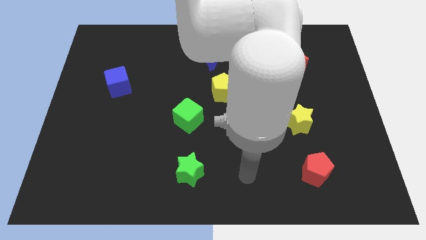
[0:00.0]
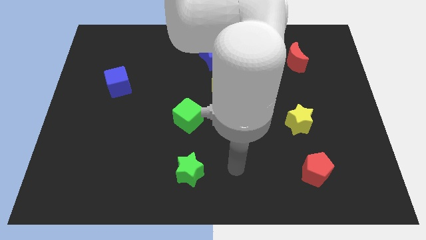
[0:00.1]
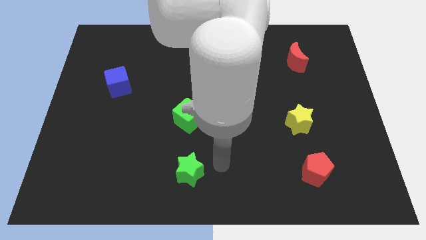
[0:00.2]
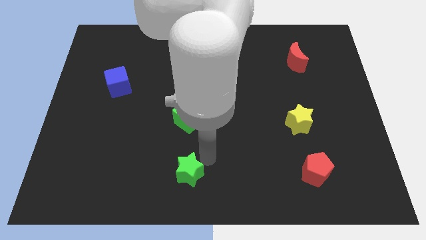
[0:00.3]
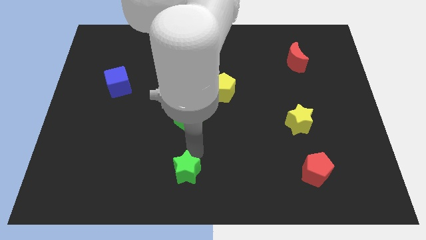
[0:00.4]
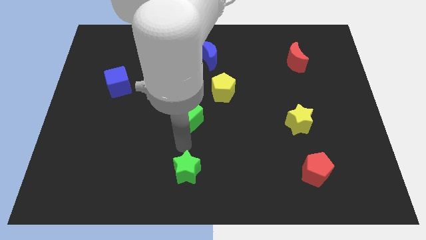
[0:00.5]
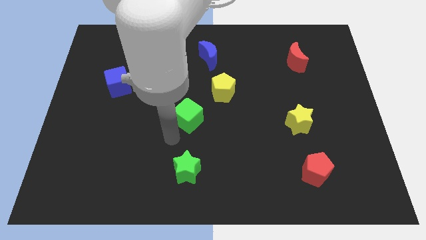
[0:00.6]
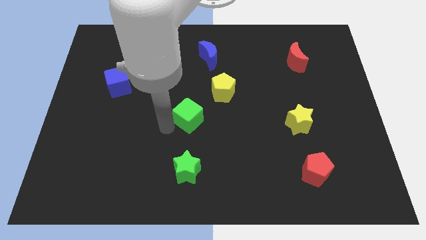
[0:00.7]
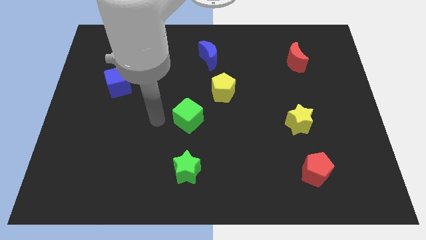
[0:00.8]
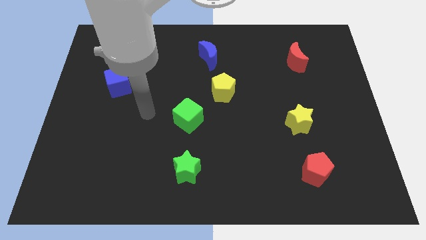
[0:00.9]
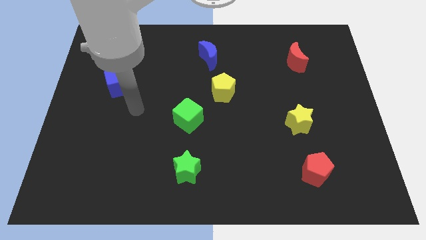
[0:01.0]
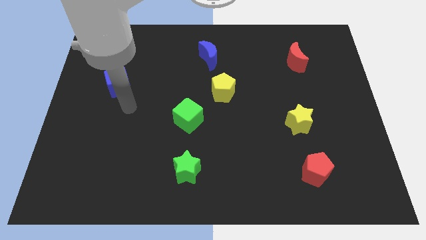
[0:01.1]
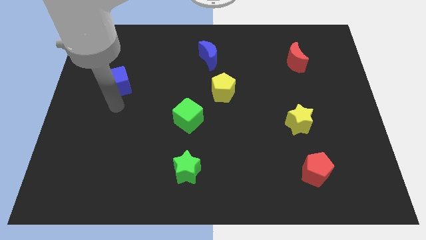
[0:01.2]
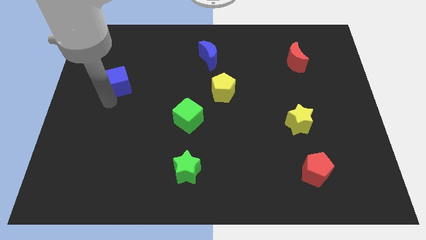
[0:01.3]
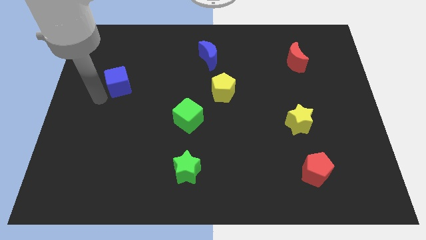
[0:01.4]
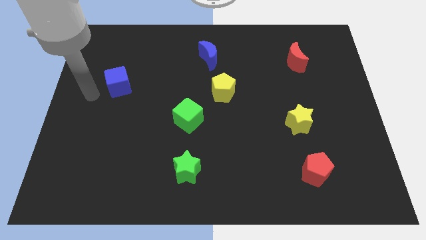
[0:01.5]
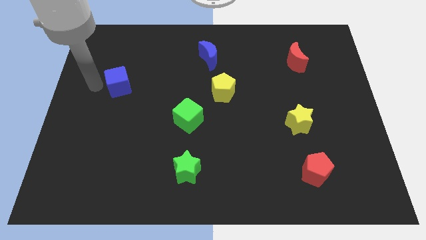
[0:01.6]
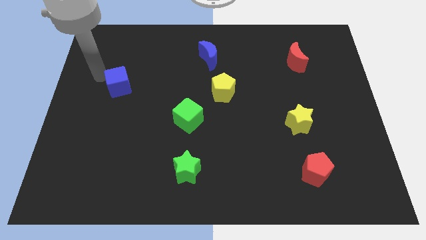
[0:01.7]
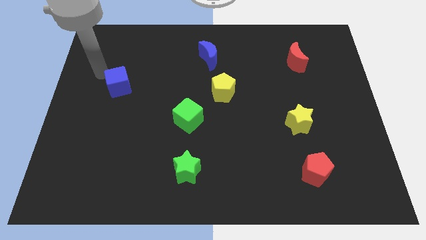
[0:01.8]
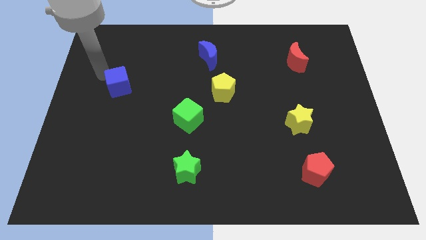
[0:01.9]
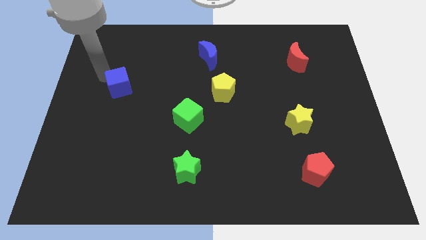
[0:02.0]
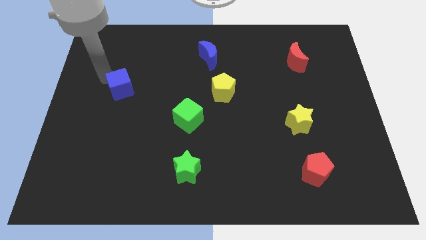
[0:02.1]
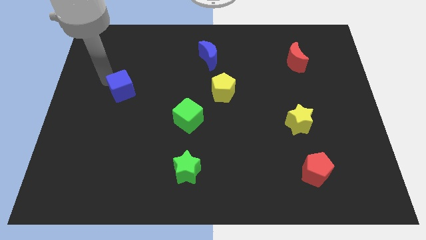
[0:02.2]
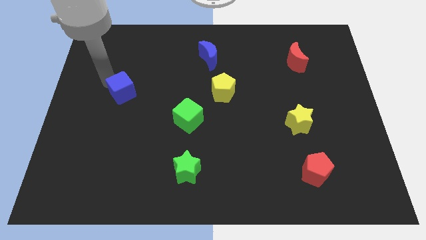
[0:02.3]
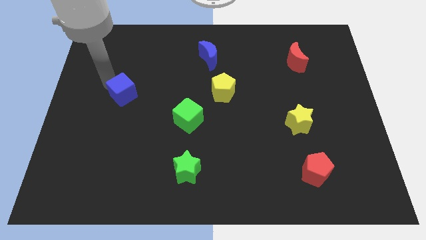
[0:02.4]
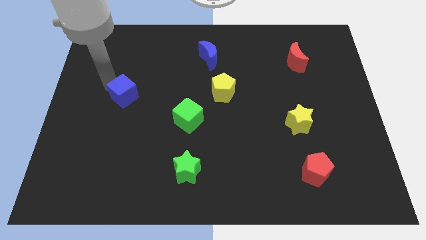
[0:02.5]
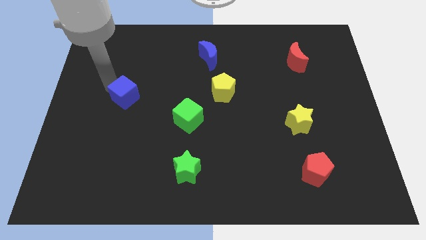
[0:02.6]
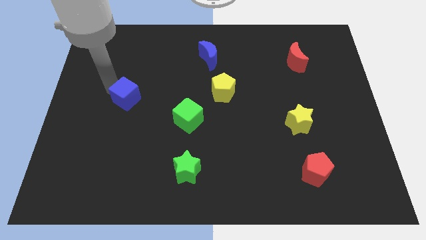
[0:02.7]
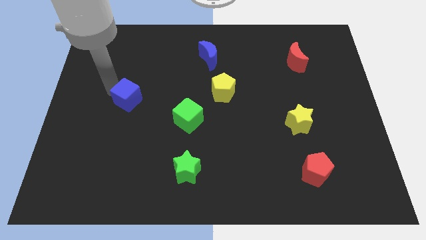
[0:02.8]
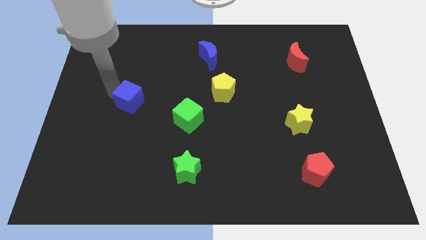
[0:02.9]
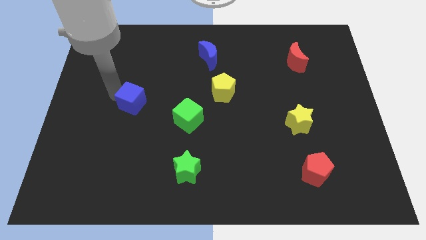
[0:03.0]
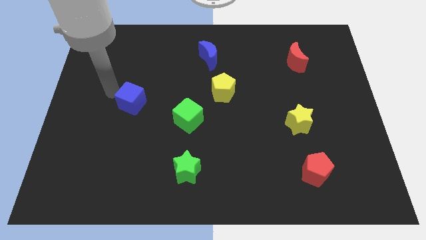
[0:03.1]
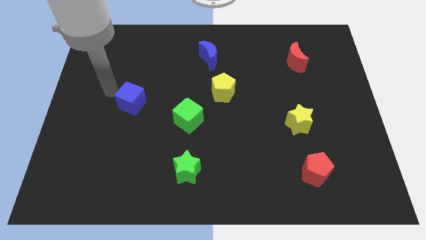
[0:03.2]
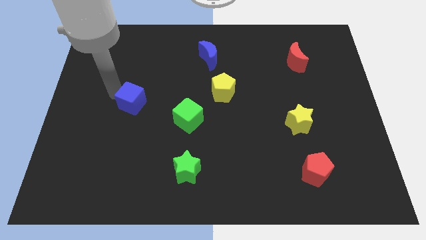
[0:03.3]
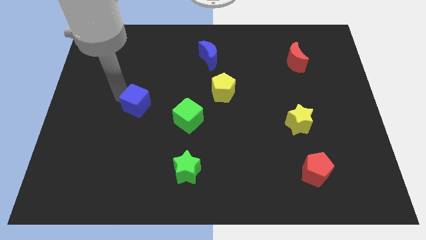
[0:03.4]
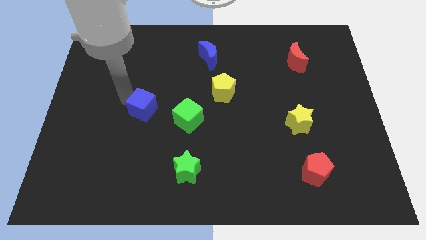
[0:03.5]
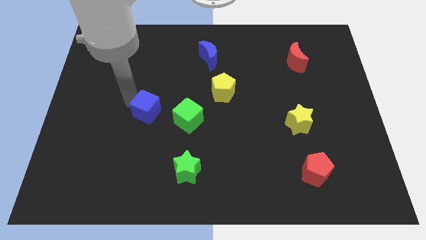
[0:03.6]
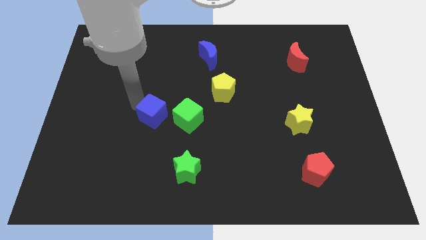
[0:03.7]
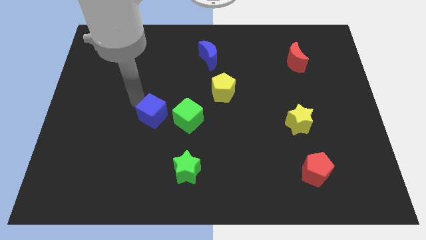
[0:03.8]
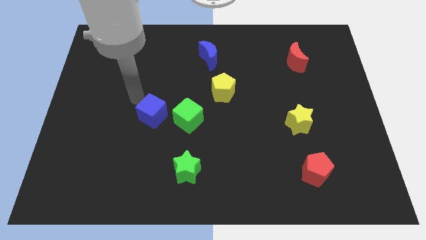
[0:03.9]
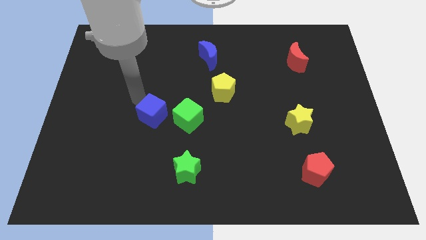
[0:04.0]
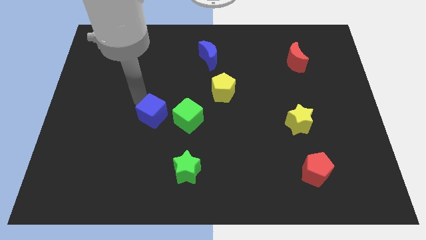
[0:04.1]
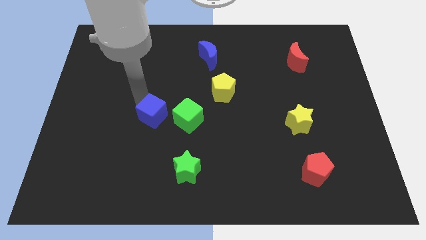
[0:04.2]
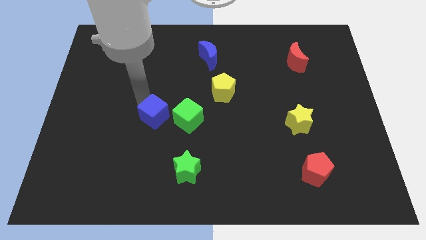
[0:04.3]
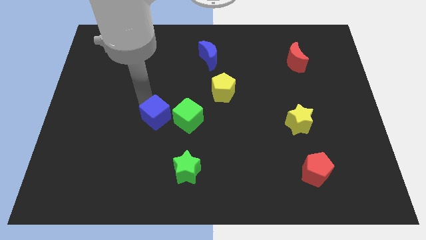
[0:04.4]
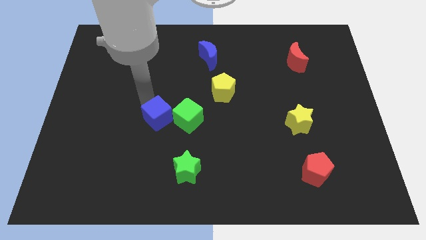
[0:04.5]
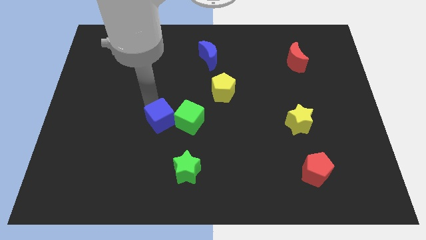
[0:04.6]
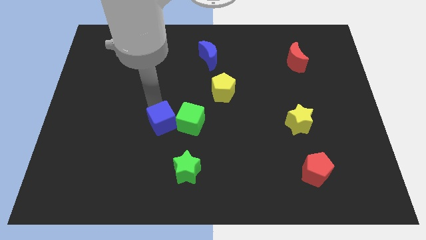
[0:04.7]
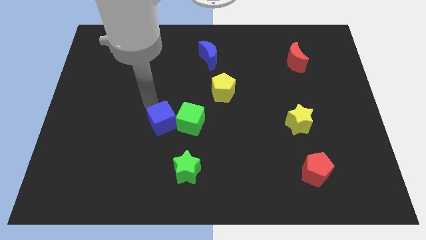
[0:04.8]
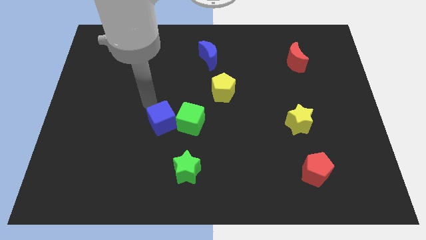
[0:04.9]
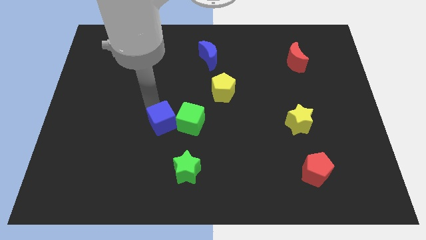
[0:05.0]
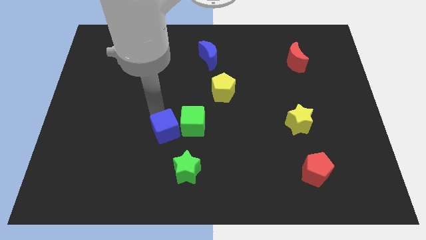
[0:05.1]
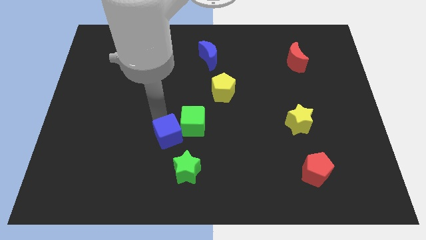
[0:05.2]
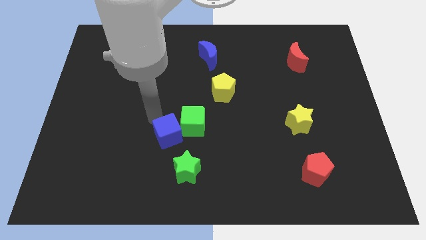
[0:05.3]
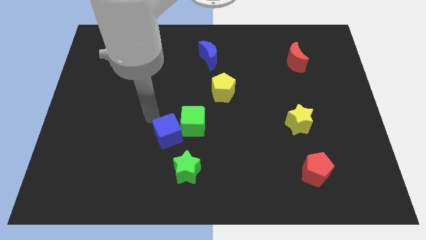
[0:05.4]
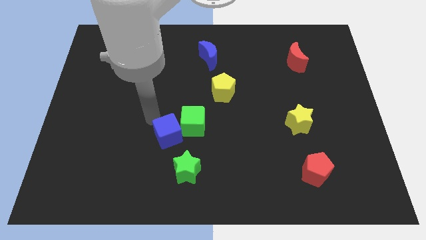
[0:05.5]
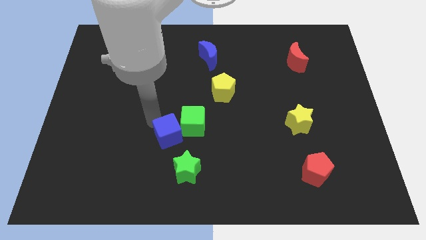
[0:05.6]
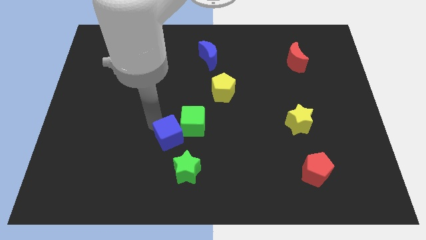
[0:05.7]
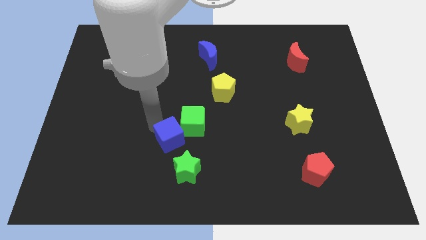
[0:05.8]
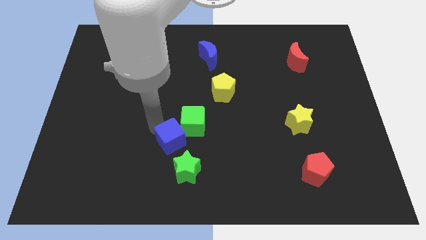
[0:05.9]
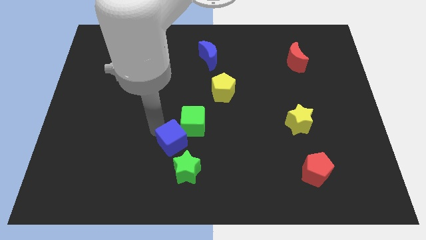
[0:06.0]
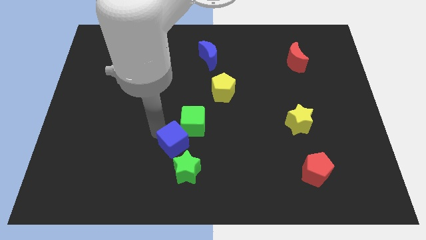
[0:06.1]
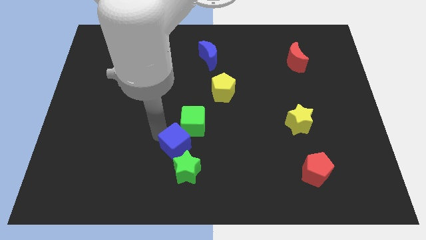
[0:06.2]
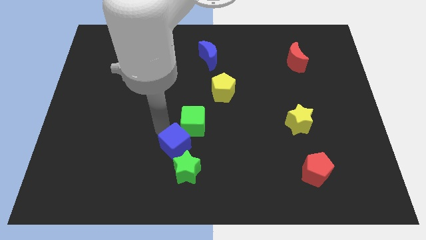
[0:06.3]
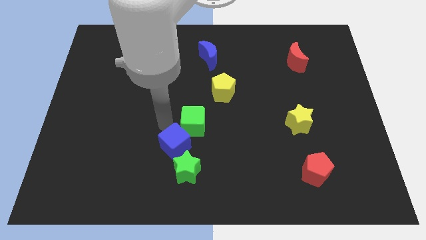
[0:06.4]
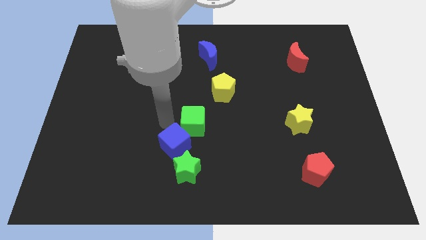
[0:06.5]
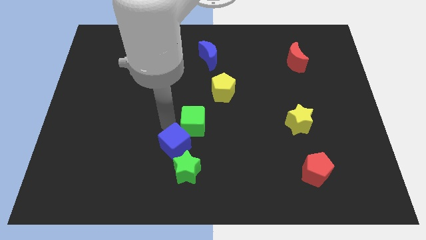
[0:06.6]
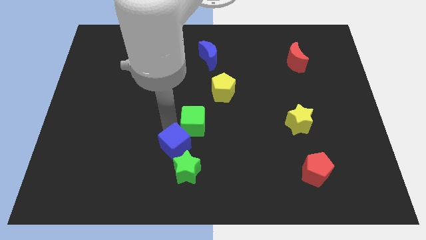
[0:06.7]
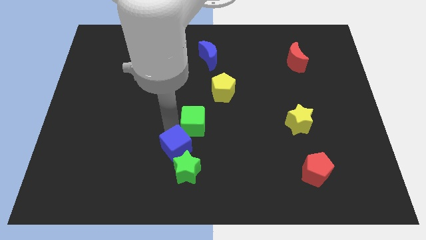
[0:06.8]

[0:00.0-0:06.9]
slide the blue cube towards the green star

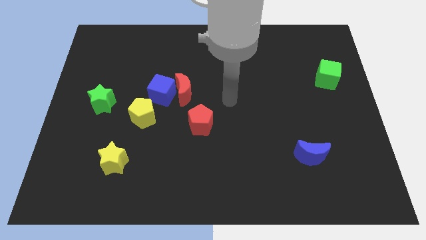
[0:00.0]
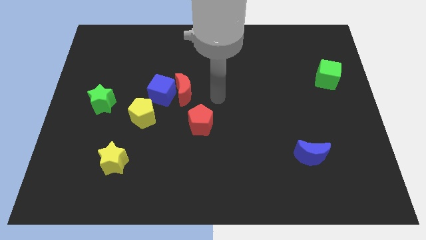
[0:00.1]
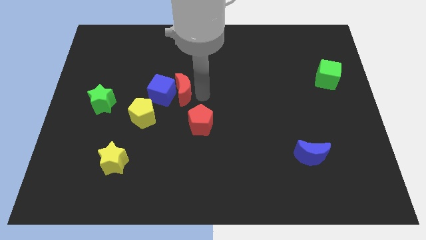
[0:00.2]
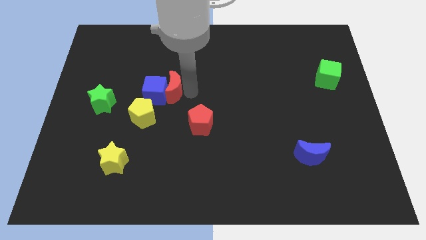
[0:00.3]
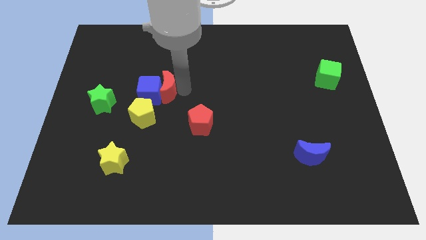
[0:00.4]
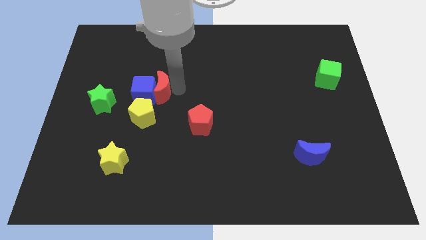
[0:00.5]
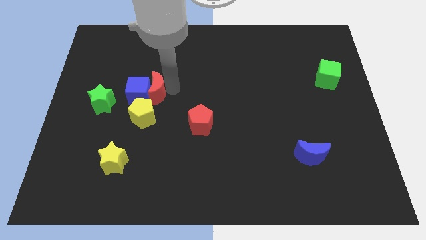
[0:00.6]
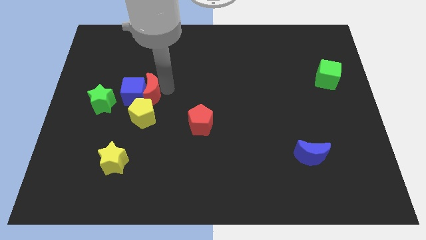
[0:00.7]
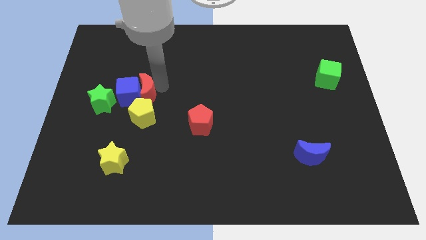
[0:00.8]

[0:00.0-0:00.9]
push the blue cube close to the green star
